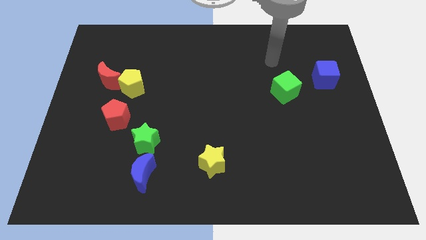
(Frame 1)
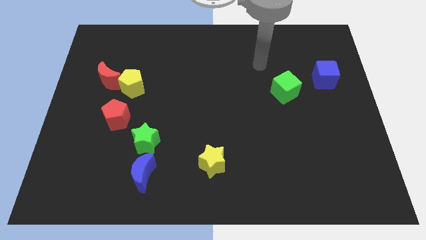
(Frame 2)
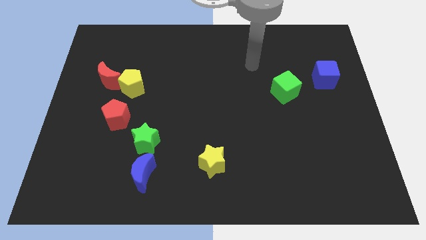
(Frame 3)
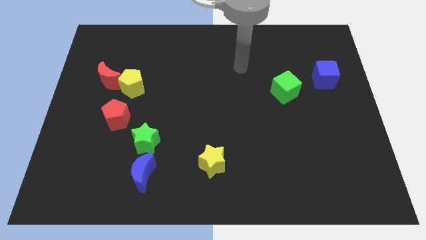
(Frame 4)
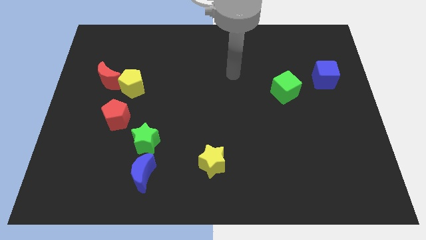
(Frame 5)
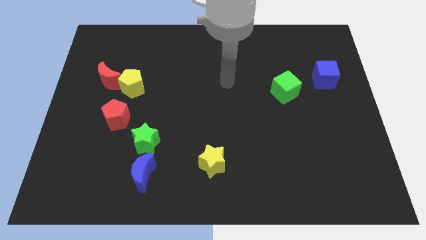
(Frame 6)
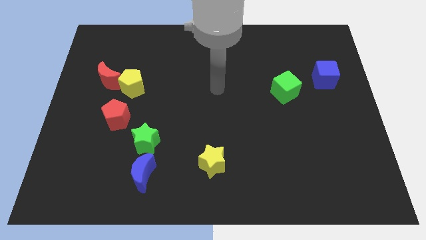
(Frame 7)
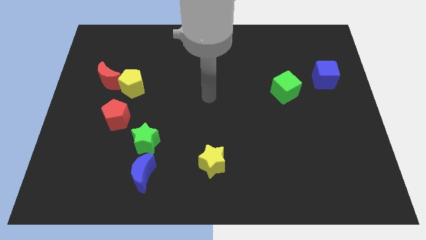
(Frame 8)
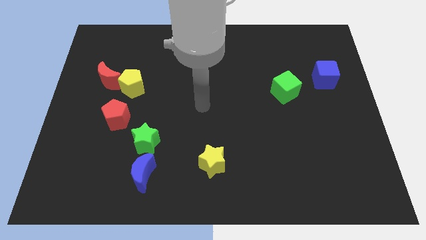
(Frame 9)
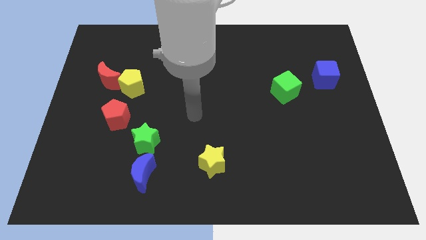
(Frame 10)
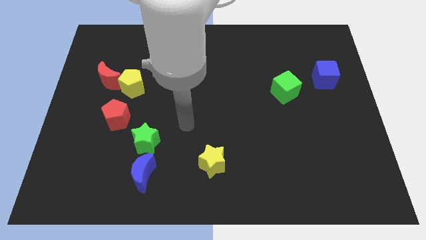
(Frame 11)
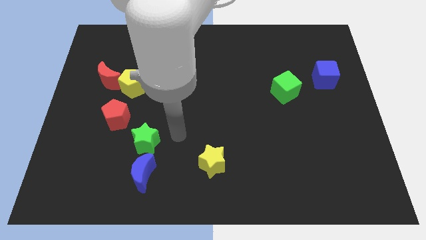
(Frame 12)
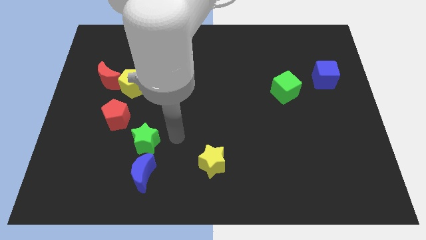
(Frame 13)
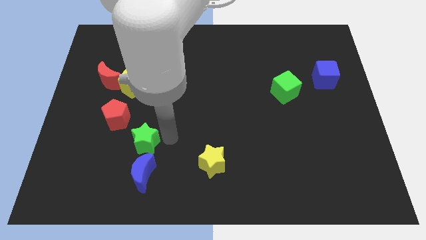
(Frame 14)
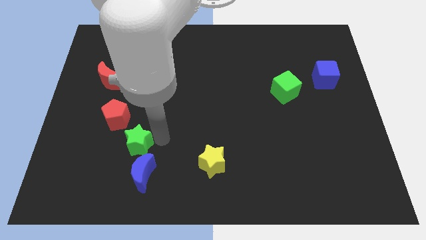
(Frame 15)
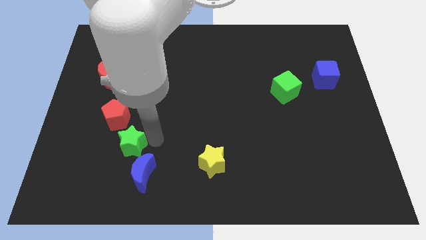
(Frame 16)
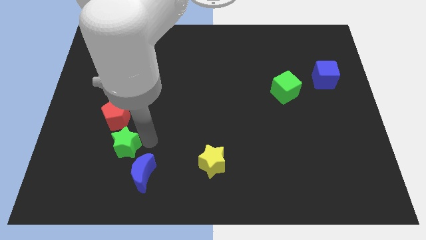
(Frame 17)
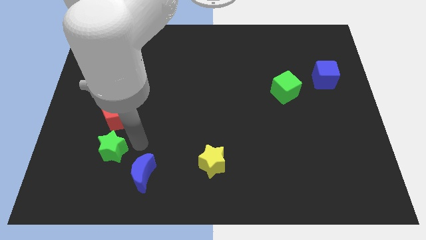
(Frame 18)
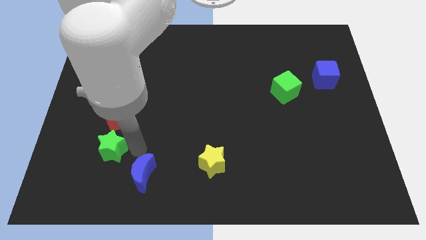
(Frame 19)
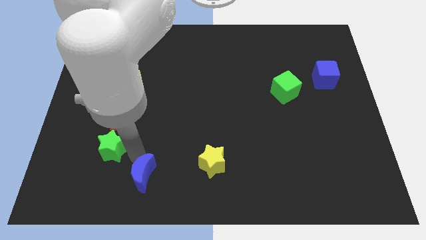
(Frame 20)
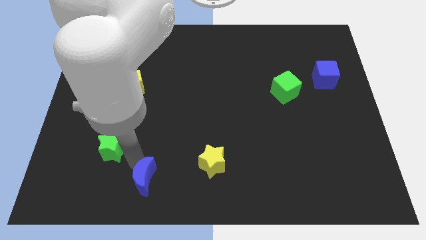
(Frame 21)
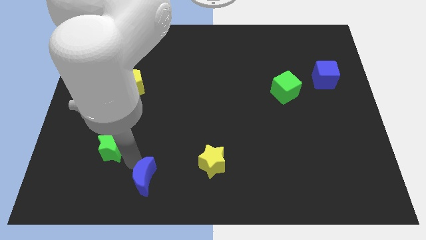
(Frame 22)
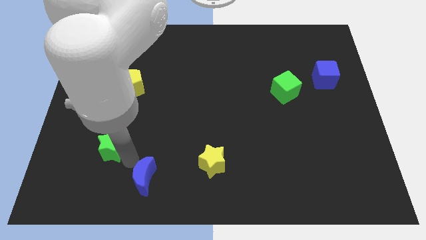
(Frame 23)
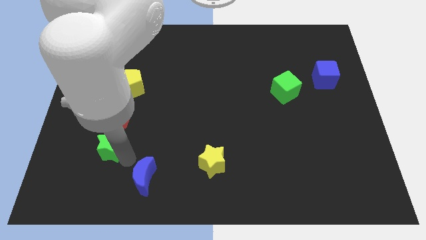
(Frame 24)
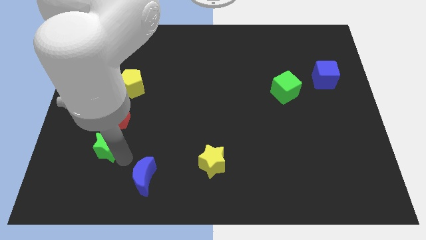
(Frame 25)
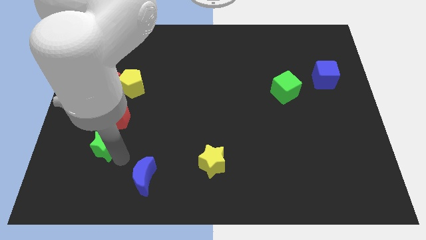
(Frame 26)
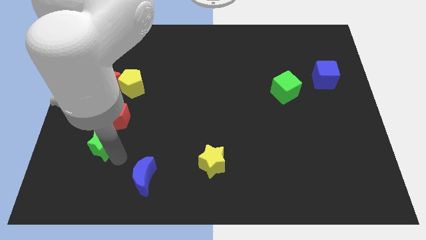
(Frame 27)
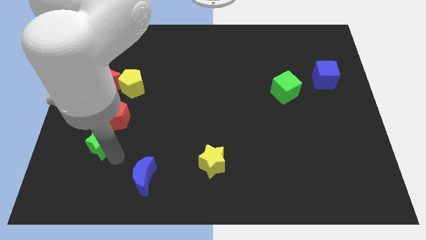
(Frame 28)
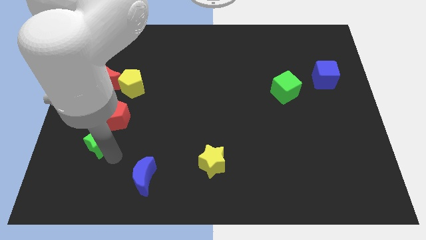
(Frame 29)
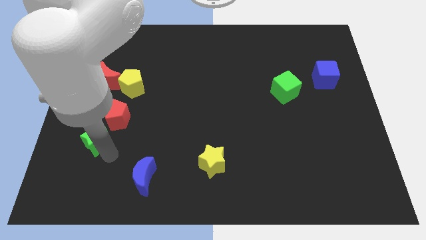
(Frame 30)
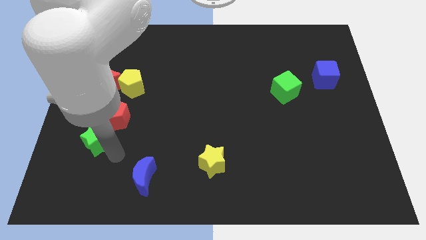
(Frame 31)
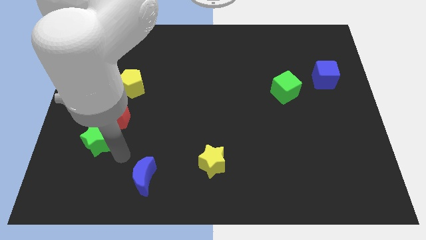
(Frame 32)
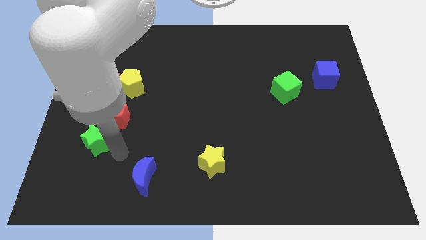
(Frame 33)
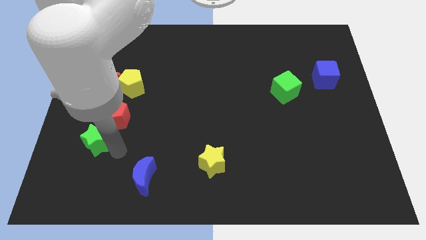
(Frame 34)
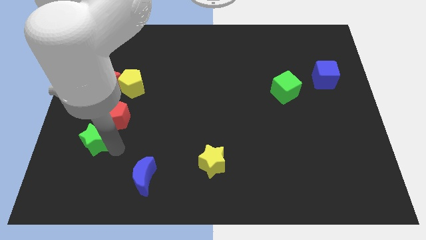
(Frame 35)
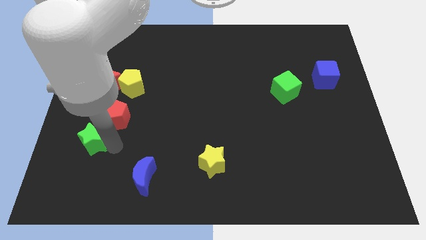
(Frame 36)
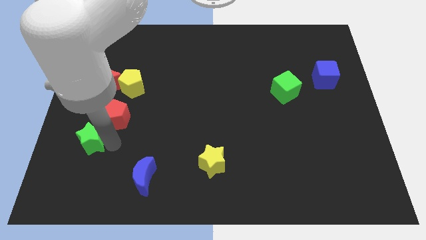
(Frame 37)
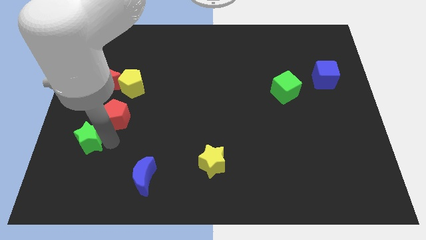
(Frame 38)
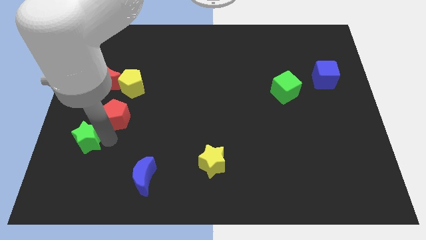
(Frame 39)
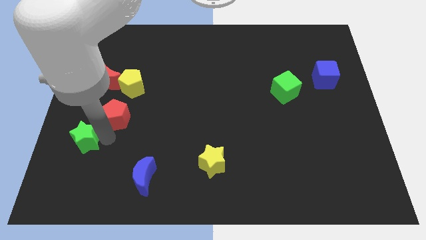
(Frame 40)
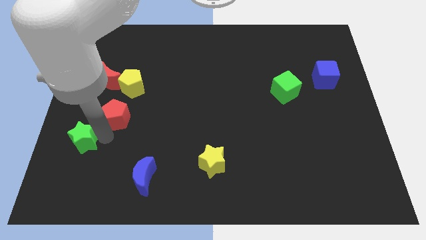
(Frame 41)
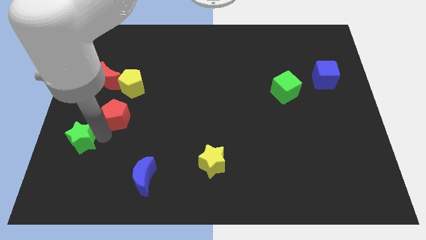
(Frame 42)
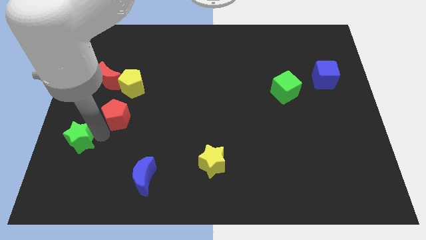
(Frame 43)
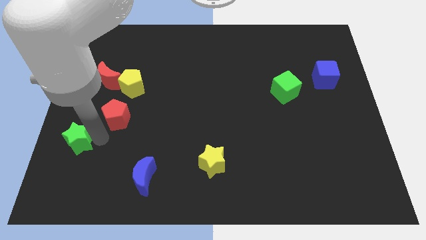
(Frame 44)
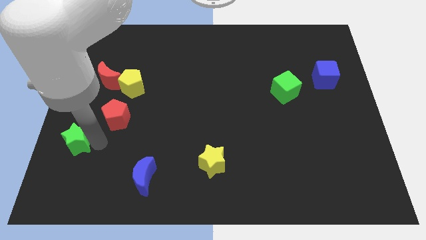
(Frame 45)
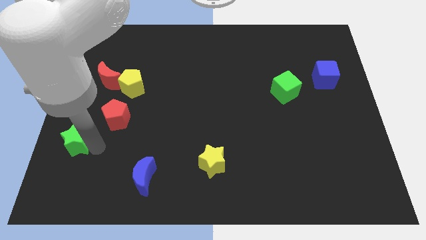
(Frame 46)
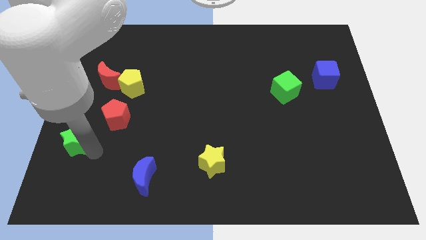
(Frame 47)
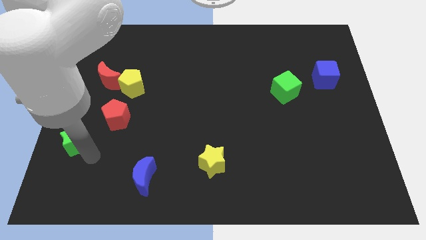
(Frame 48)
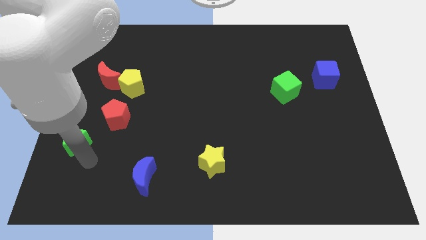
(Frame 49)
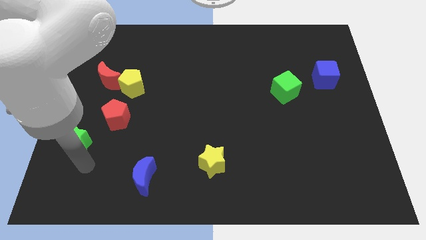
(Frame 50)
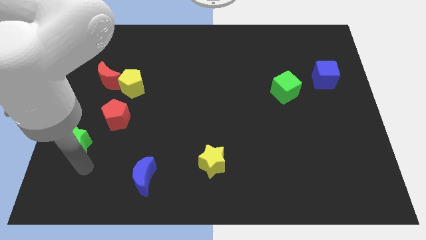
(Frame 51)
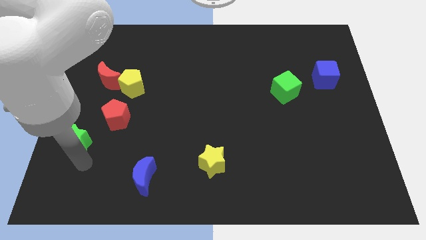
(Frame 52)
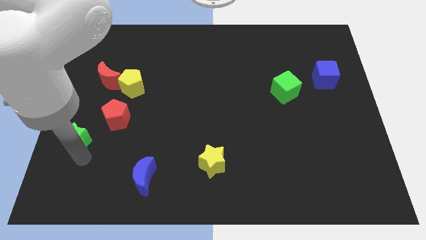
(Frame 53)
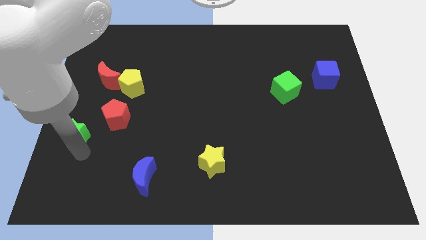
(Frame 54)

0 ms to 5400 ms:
put the green star to the center left

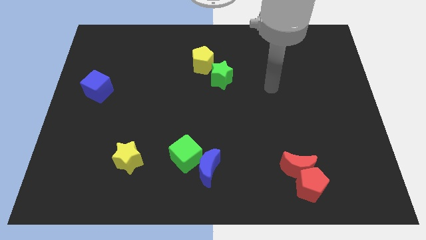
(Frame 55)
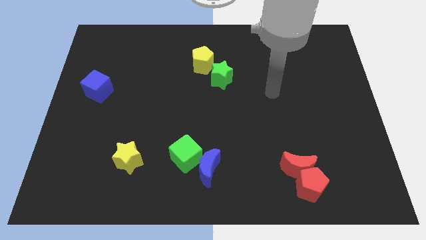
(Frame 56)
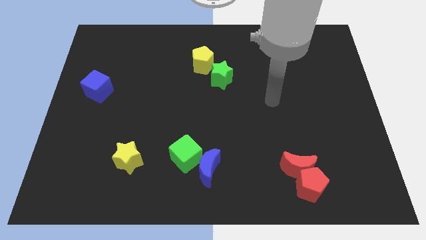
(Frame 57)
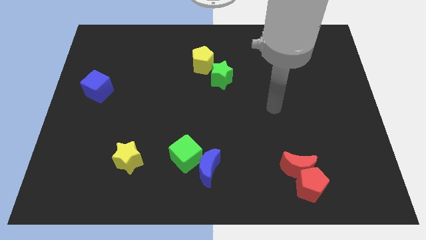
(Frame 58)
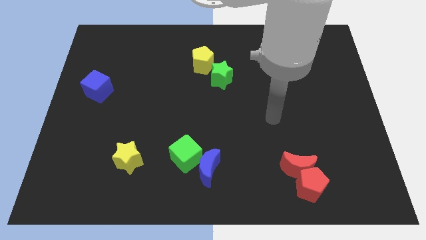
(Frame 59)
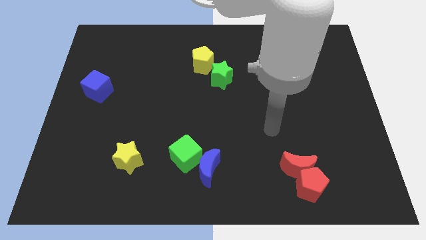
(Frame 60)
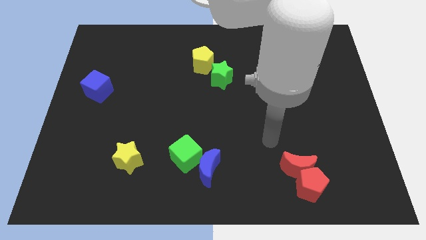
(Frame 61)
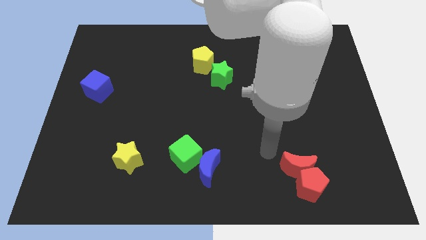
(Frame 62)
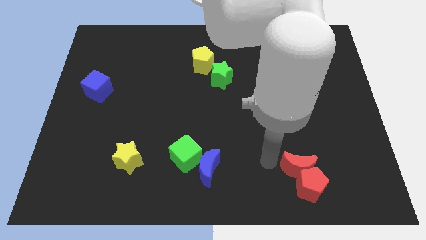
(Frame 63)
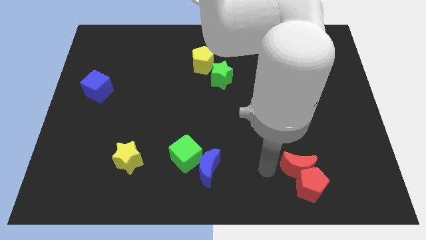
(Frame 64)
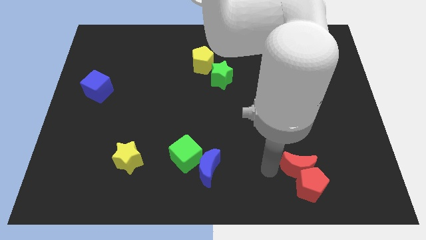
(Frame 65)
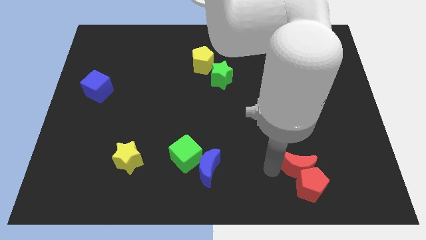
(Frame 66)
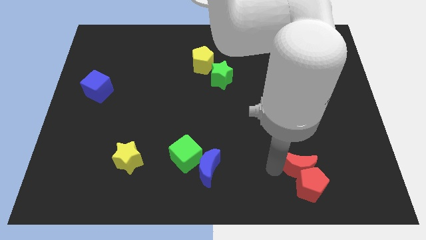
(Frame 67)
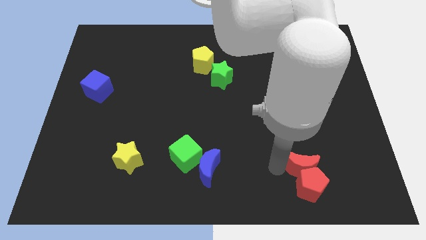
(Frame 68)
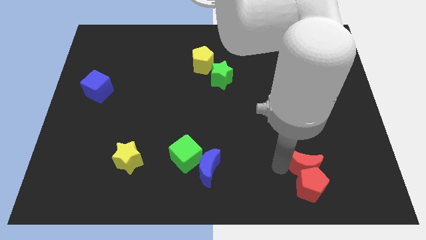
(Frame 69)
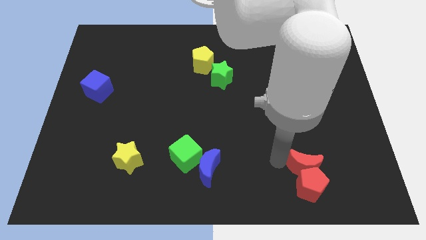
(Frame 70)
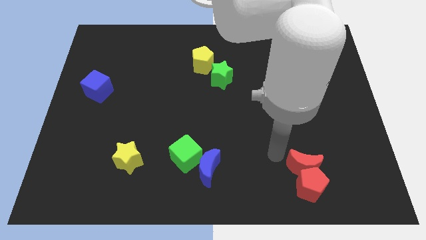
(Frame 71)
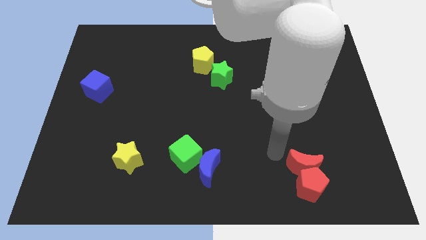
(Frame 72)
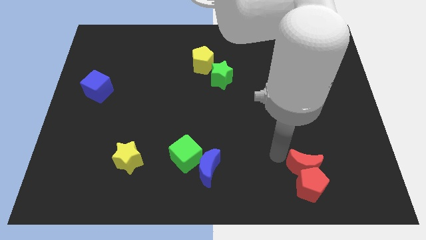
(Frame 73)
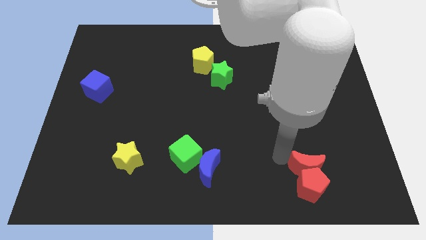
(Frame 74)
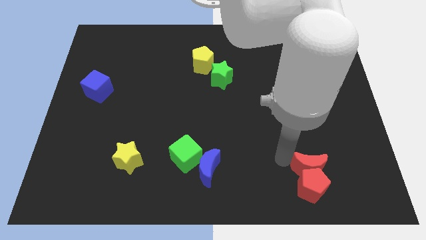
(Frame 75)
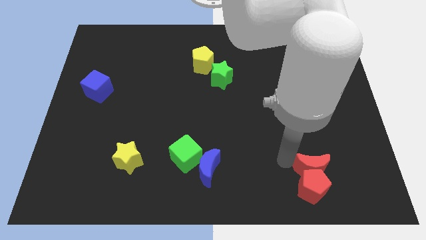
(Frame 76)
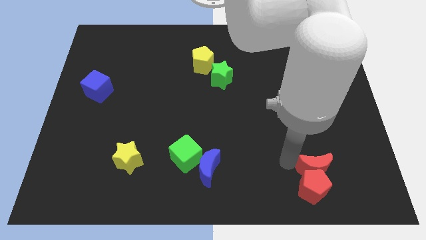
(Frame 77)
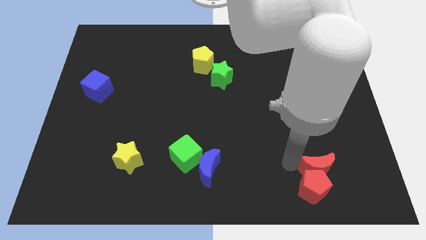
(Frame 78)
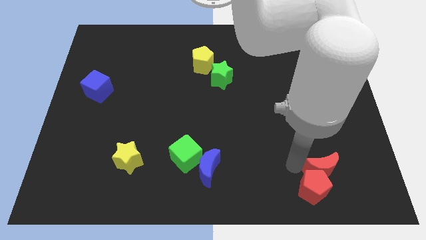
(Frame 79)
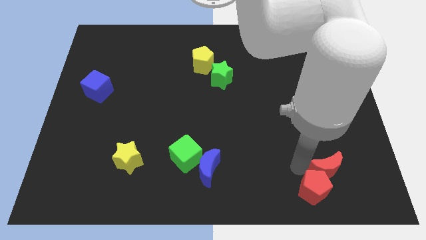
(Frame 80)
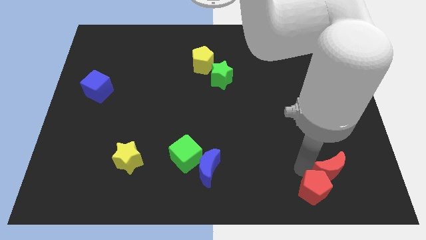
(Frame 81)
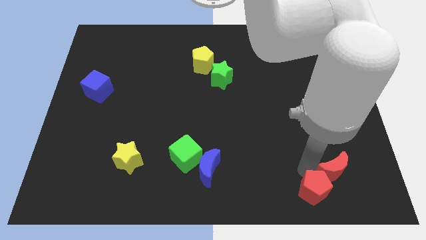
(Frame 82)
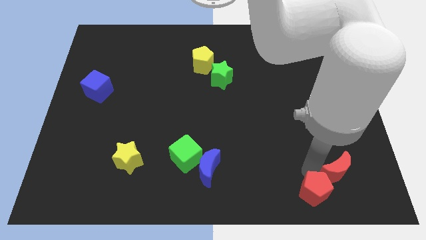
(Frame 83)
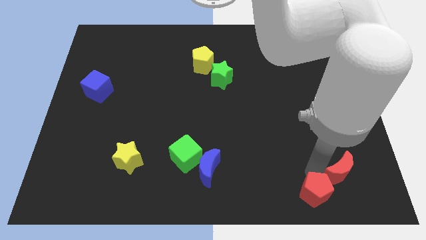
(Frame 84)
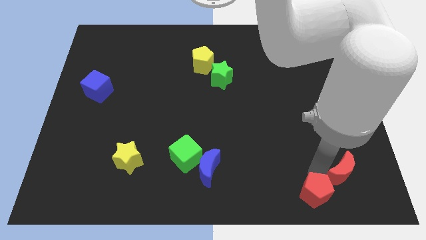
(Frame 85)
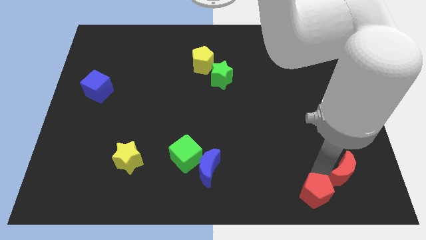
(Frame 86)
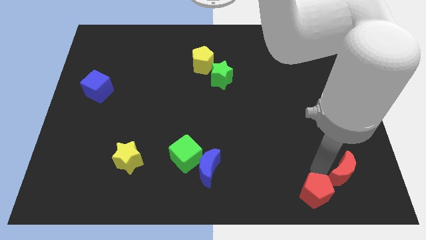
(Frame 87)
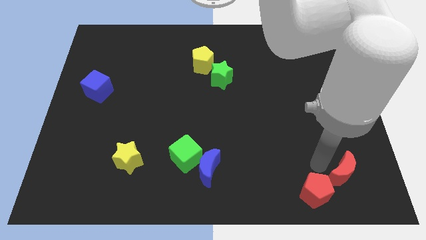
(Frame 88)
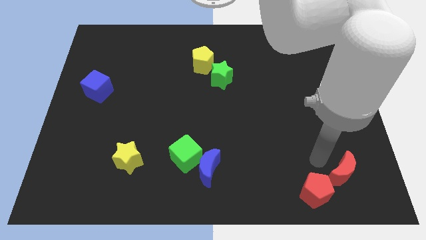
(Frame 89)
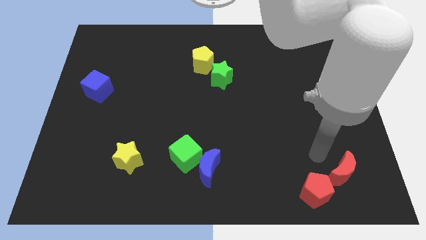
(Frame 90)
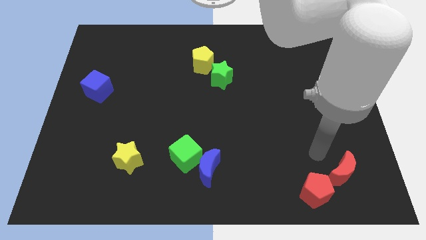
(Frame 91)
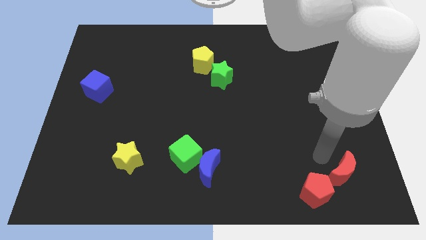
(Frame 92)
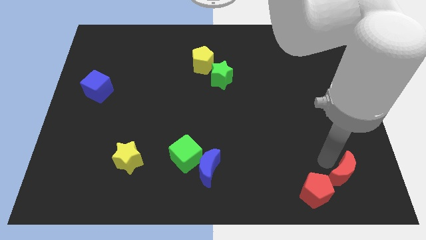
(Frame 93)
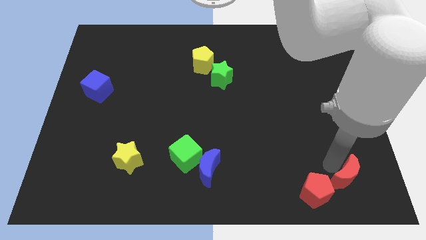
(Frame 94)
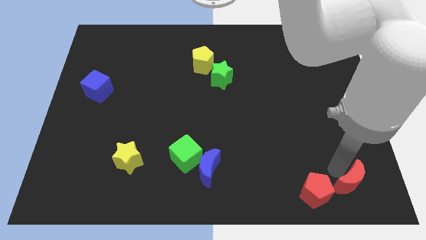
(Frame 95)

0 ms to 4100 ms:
put the red moon to the lower right corner
